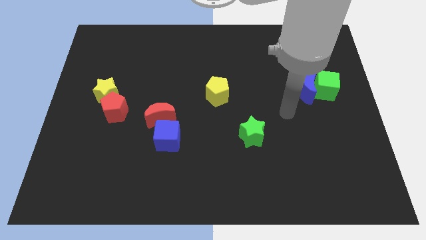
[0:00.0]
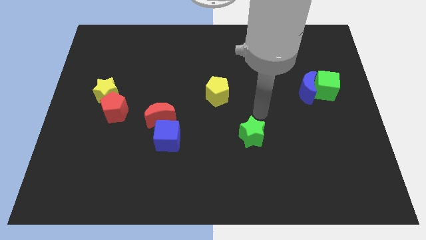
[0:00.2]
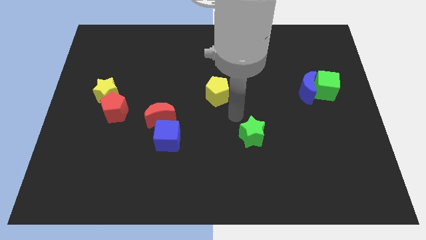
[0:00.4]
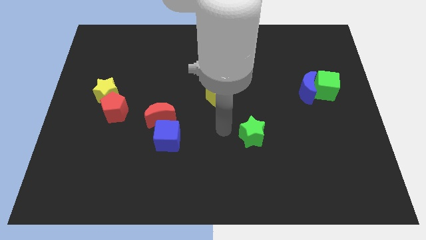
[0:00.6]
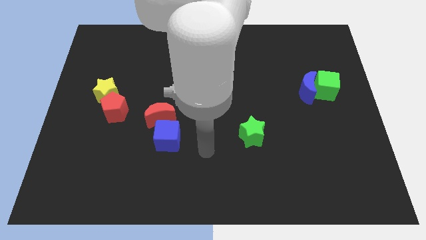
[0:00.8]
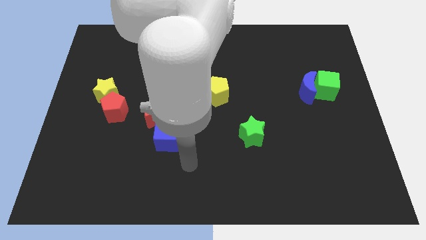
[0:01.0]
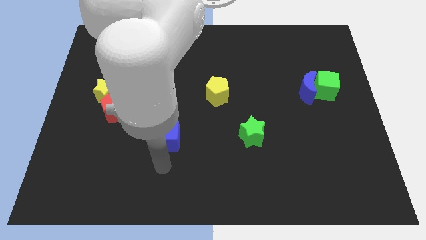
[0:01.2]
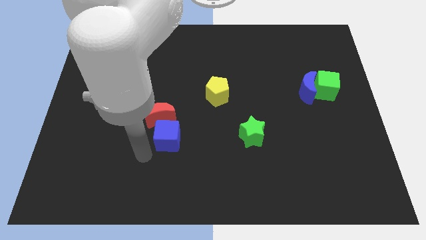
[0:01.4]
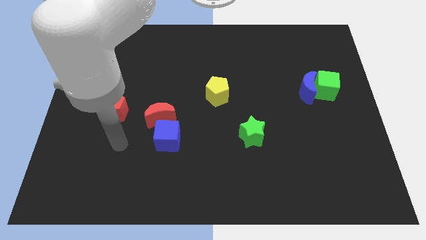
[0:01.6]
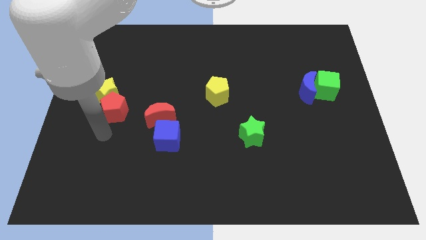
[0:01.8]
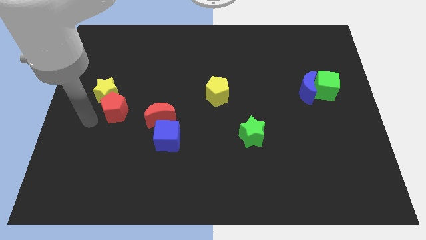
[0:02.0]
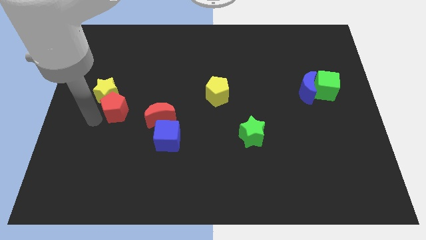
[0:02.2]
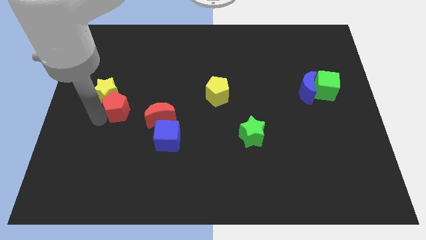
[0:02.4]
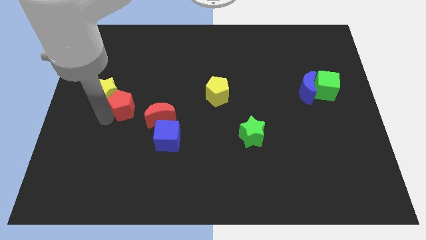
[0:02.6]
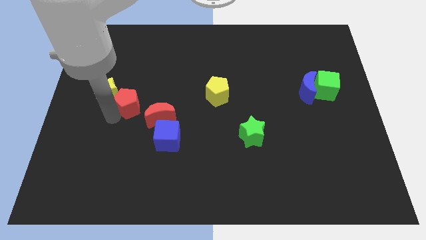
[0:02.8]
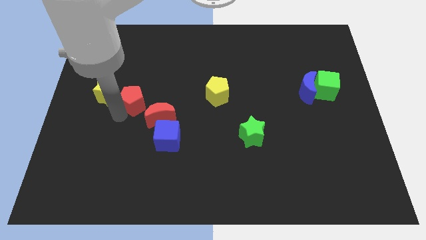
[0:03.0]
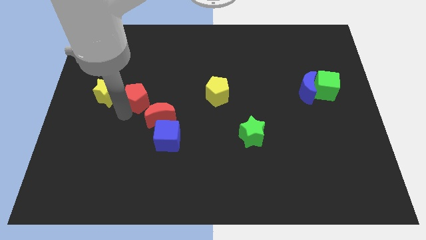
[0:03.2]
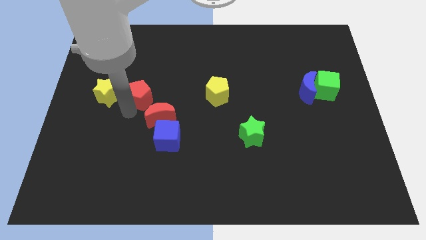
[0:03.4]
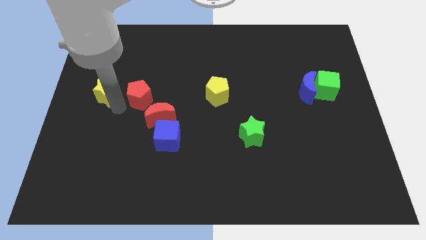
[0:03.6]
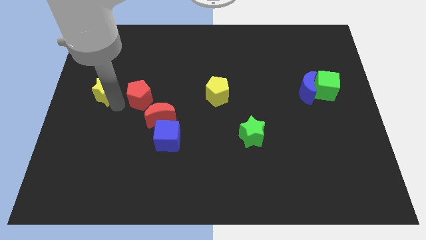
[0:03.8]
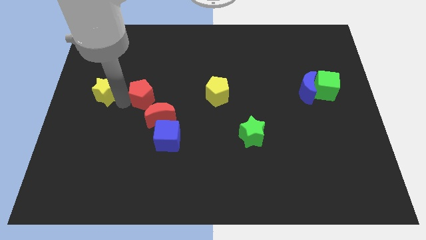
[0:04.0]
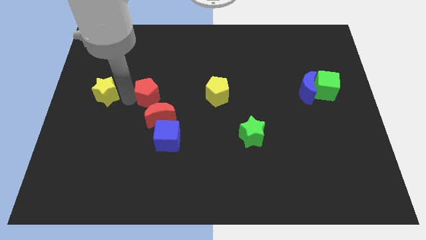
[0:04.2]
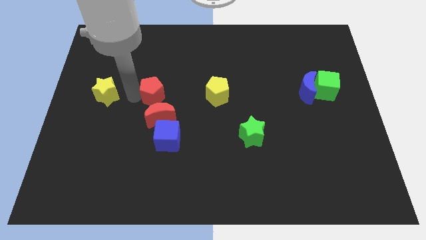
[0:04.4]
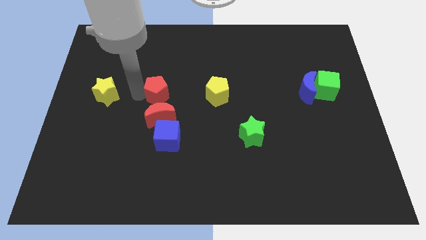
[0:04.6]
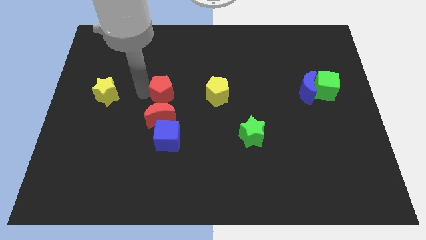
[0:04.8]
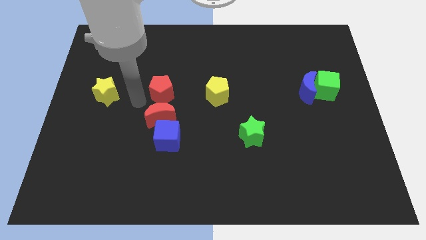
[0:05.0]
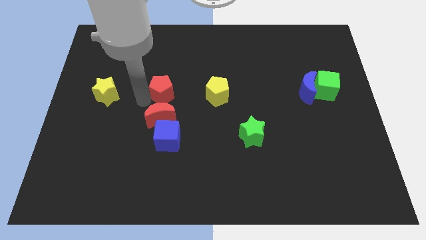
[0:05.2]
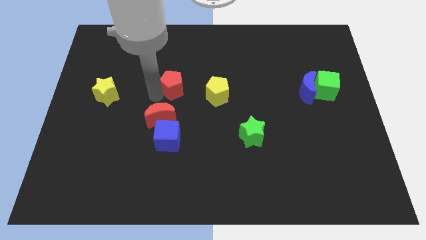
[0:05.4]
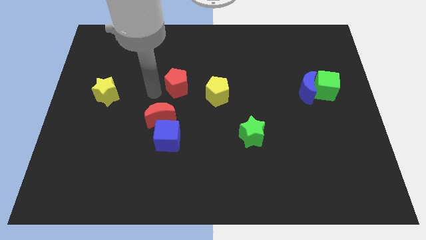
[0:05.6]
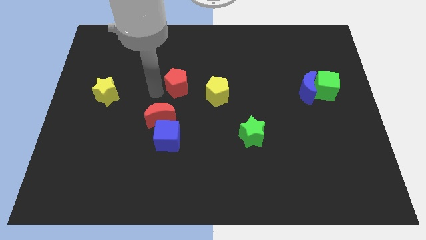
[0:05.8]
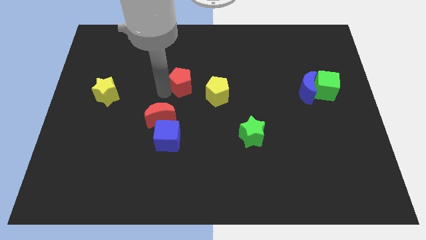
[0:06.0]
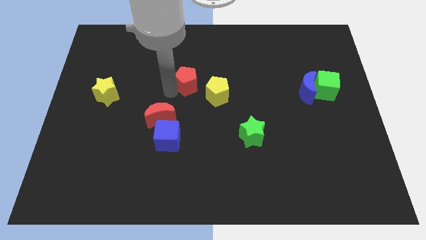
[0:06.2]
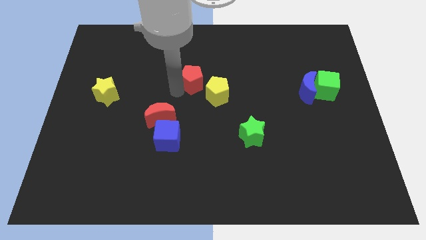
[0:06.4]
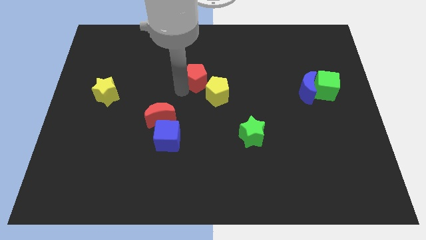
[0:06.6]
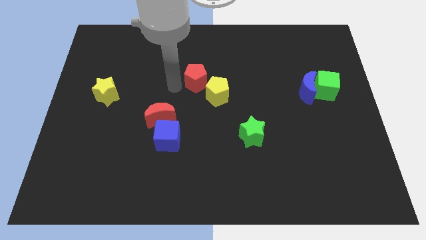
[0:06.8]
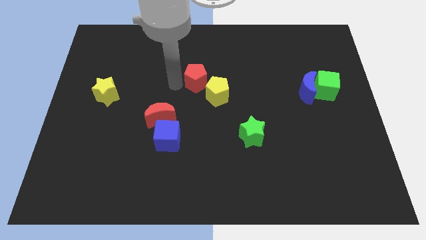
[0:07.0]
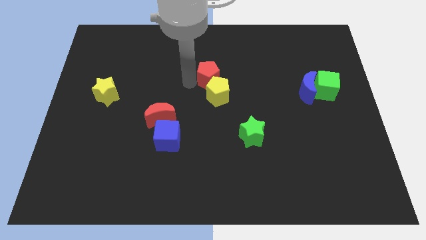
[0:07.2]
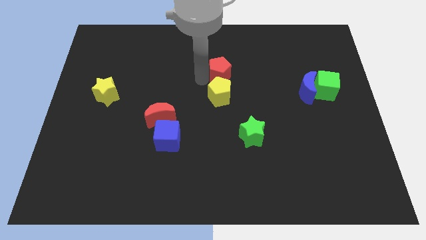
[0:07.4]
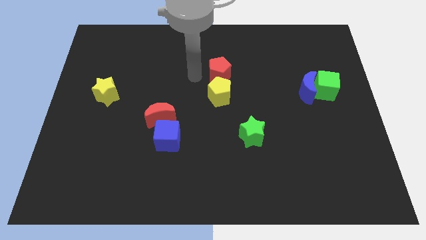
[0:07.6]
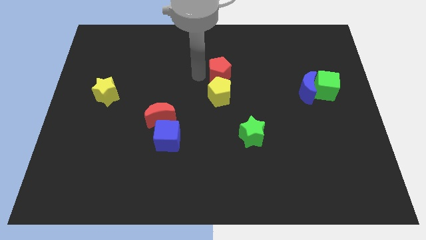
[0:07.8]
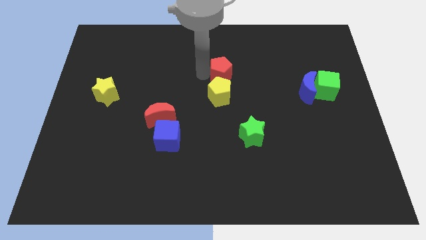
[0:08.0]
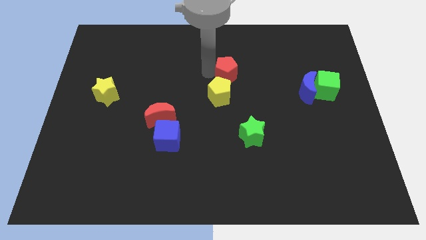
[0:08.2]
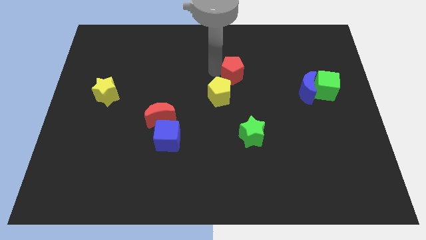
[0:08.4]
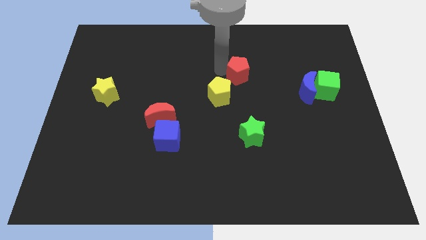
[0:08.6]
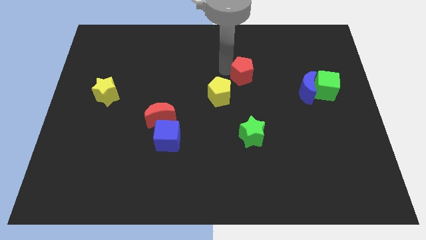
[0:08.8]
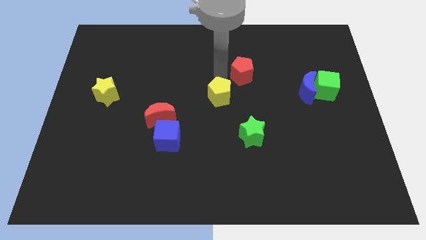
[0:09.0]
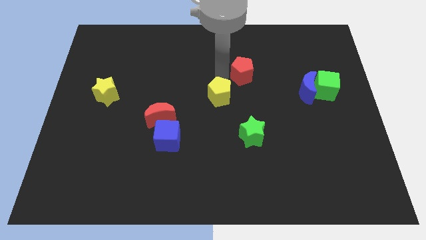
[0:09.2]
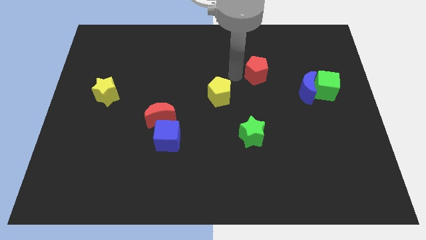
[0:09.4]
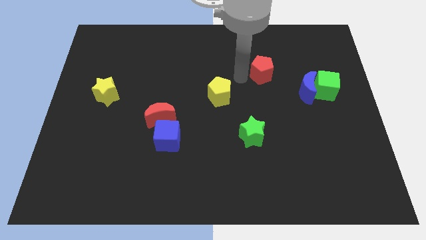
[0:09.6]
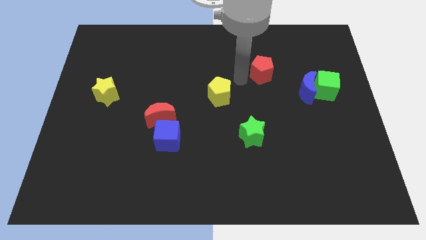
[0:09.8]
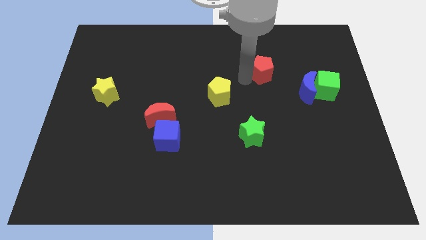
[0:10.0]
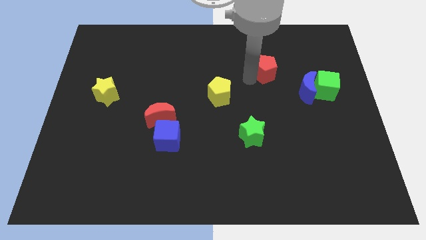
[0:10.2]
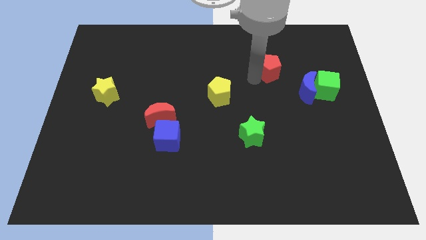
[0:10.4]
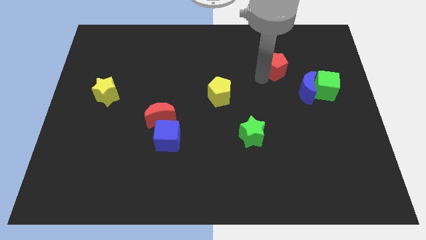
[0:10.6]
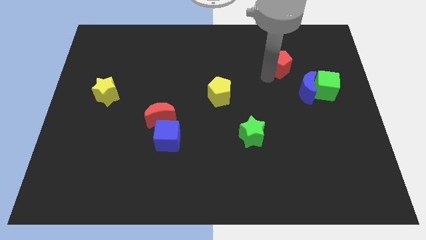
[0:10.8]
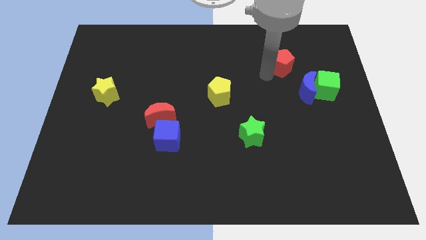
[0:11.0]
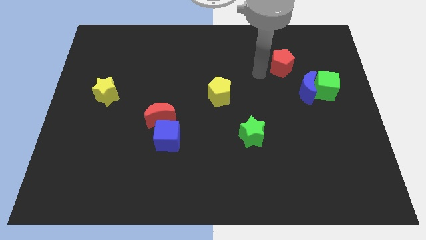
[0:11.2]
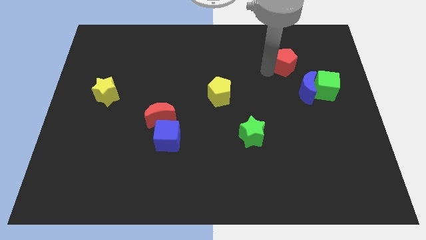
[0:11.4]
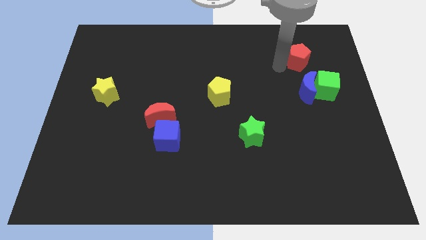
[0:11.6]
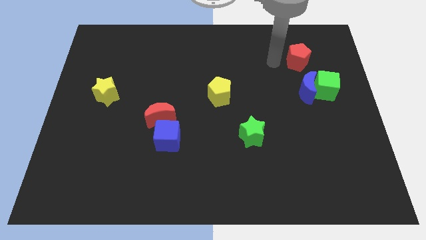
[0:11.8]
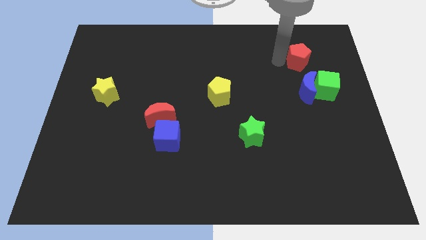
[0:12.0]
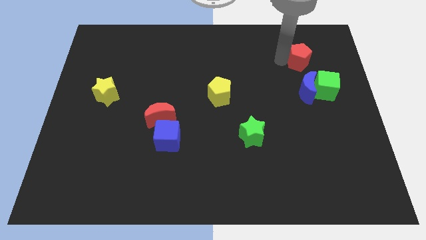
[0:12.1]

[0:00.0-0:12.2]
put the red pentagon to the top of the green cube

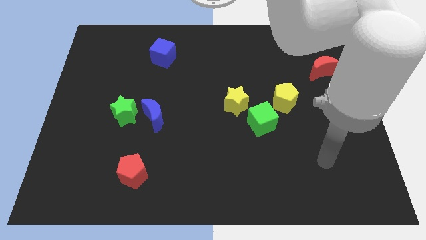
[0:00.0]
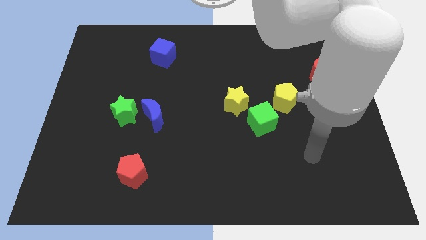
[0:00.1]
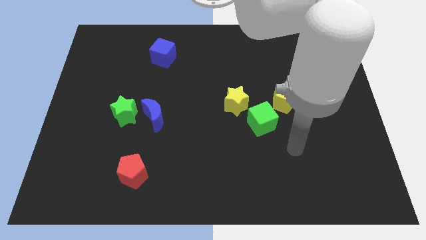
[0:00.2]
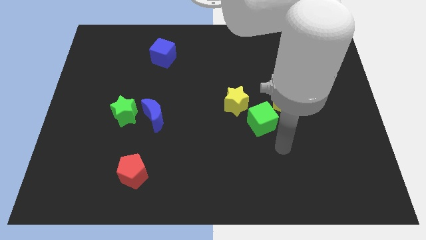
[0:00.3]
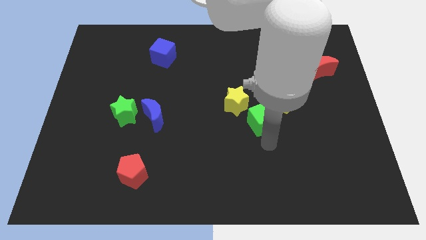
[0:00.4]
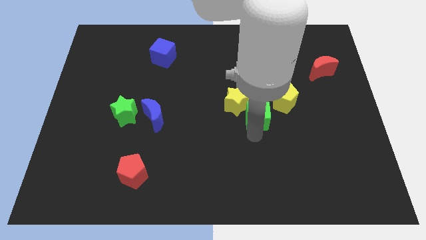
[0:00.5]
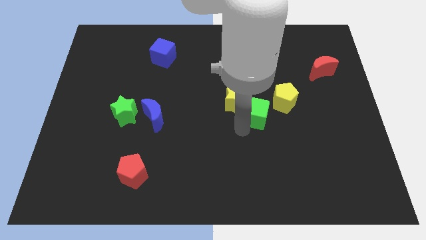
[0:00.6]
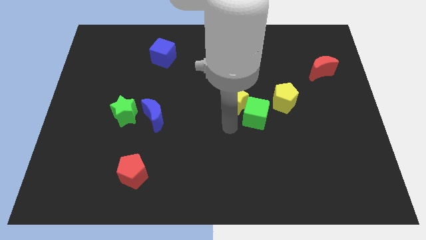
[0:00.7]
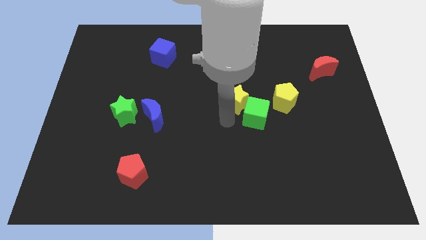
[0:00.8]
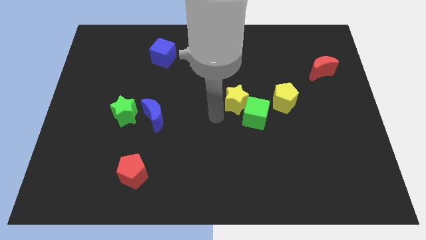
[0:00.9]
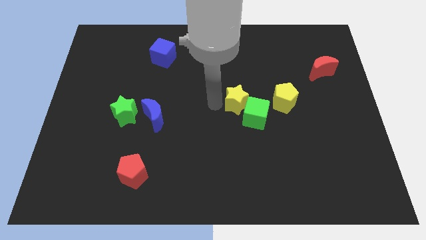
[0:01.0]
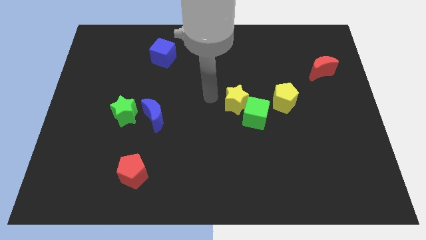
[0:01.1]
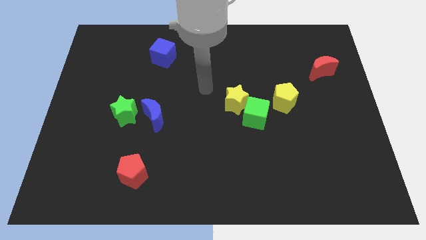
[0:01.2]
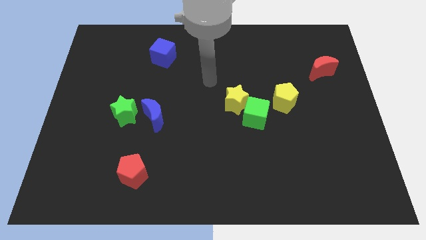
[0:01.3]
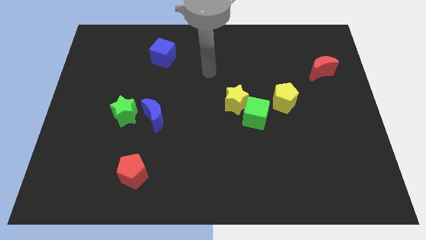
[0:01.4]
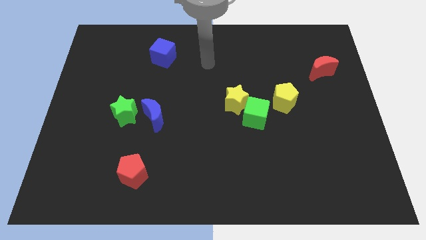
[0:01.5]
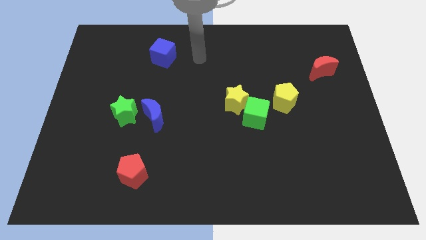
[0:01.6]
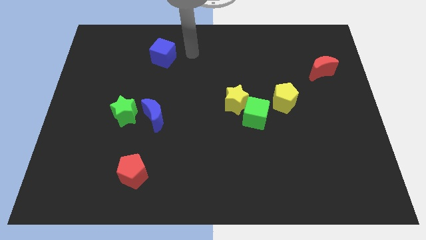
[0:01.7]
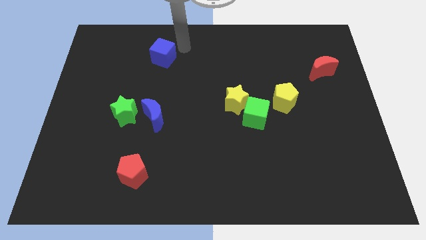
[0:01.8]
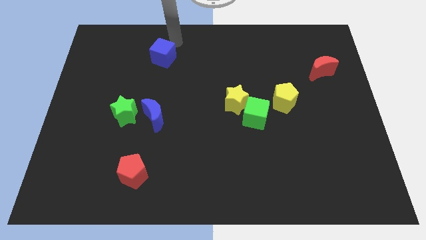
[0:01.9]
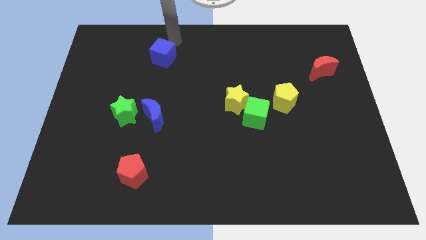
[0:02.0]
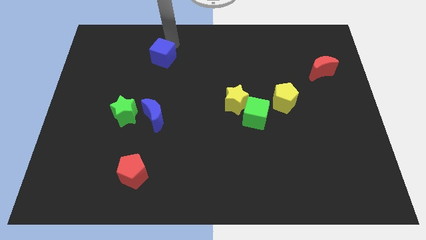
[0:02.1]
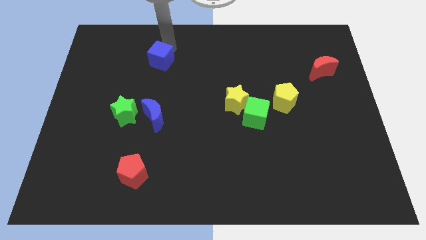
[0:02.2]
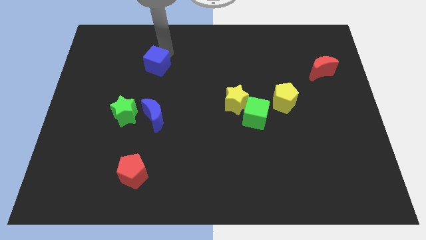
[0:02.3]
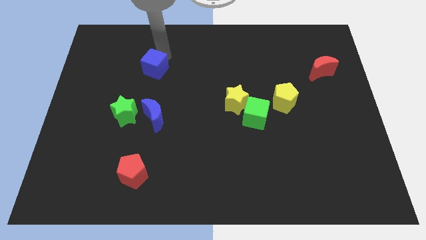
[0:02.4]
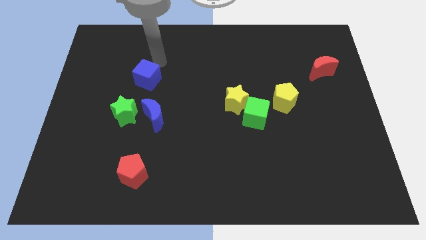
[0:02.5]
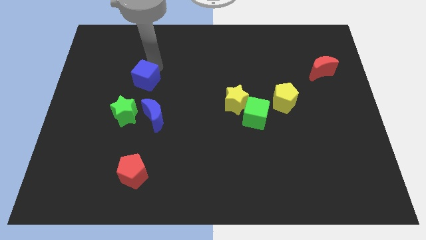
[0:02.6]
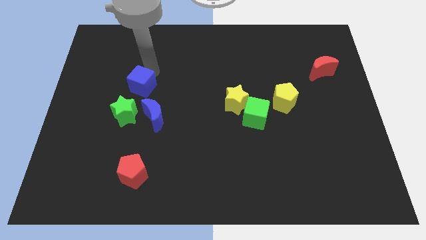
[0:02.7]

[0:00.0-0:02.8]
put the blue cube to the top left of the blue moon
